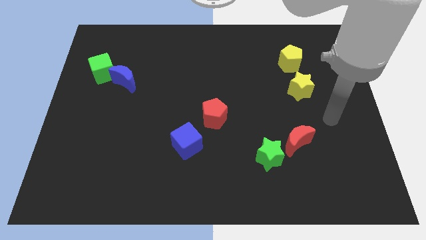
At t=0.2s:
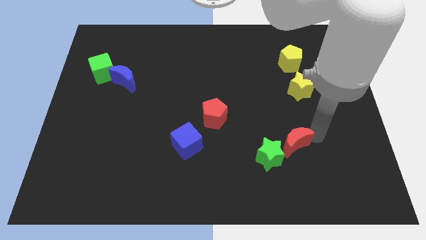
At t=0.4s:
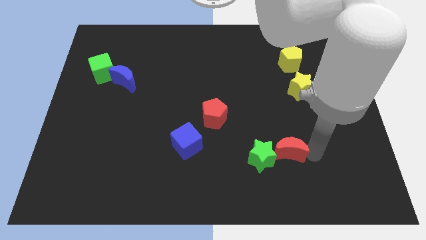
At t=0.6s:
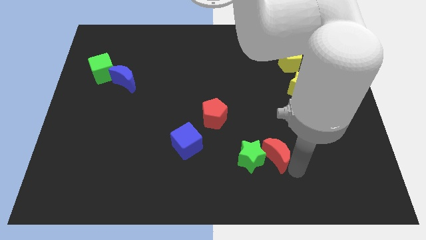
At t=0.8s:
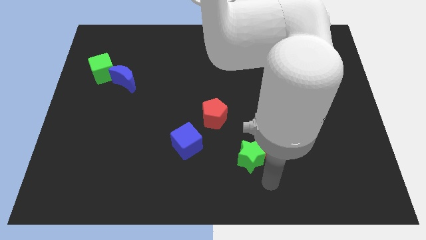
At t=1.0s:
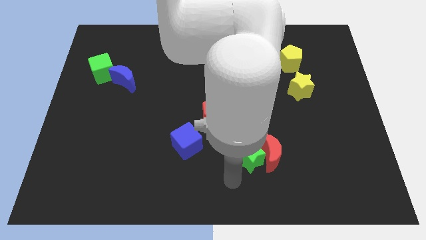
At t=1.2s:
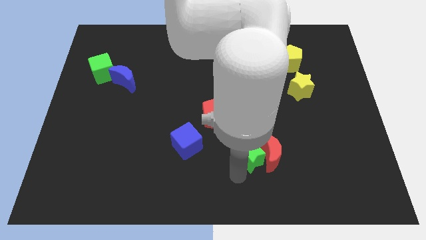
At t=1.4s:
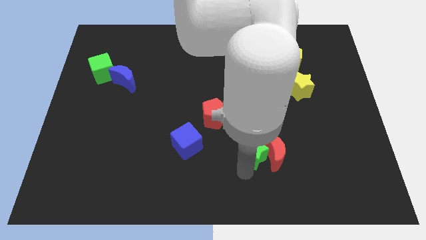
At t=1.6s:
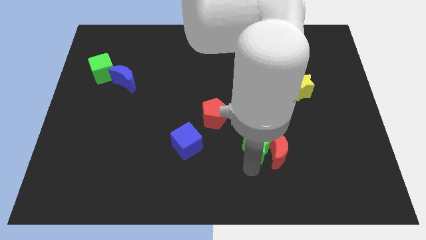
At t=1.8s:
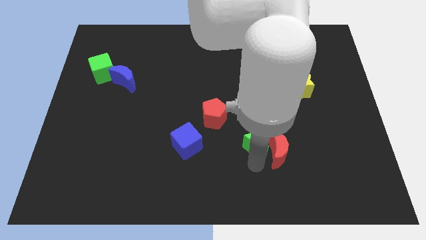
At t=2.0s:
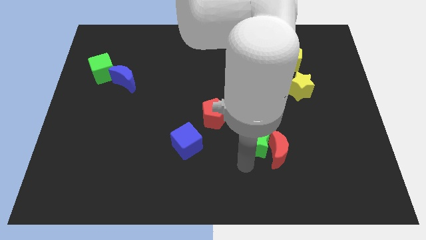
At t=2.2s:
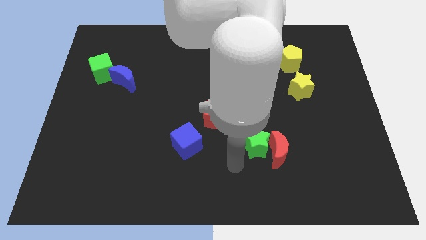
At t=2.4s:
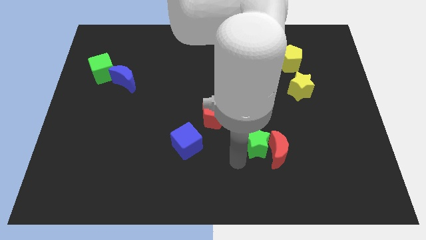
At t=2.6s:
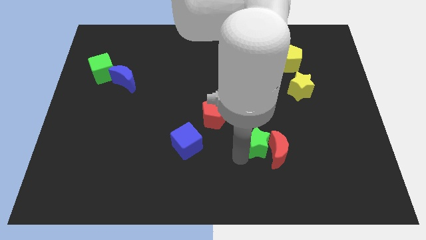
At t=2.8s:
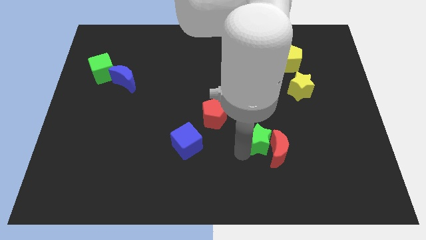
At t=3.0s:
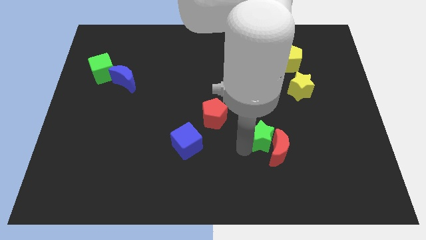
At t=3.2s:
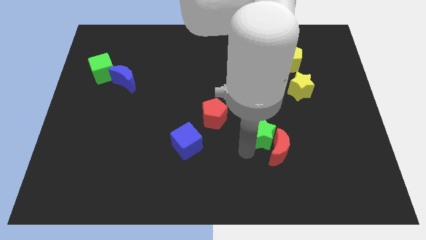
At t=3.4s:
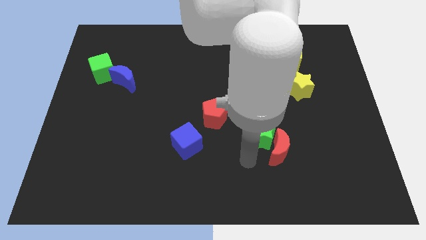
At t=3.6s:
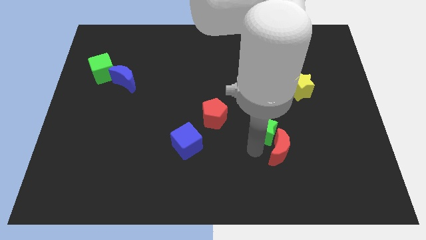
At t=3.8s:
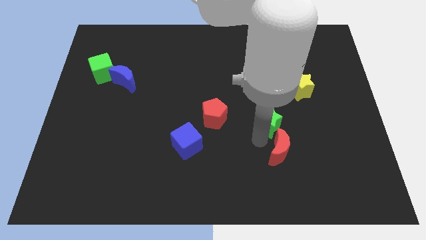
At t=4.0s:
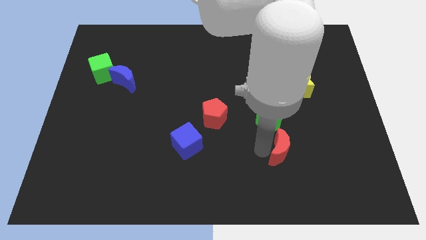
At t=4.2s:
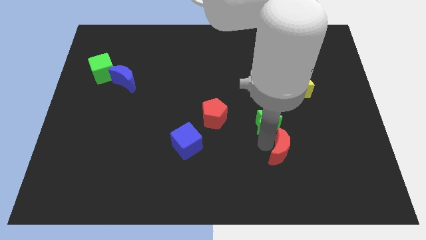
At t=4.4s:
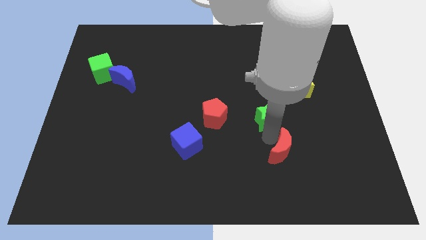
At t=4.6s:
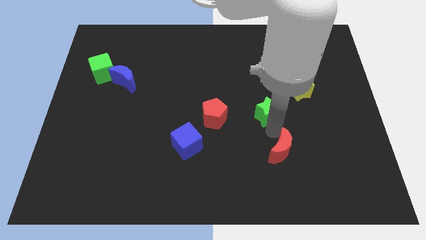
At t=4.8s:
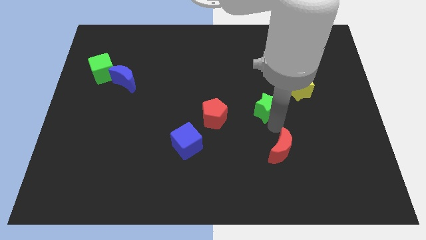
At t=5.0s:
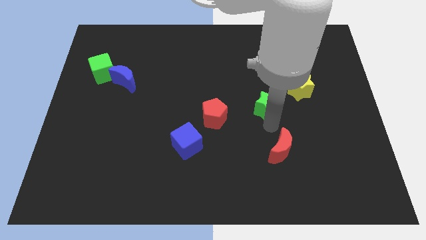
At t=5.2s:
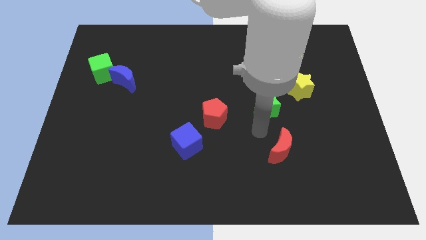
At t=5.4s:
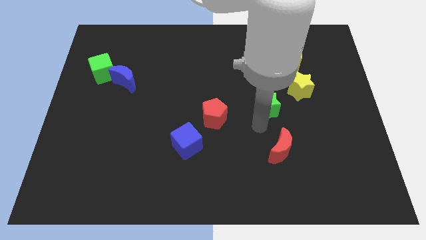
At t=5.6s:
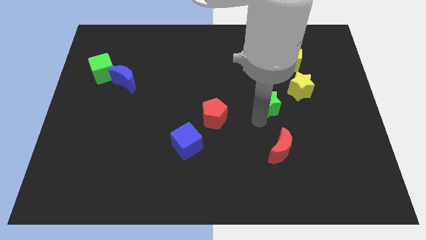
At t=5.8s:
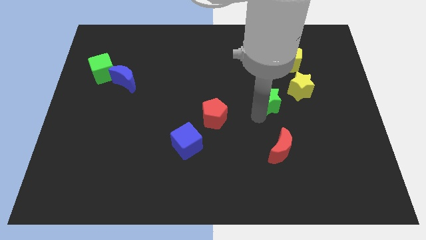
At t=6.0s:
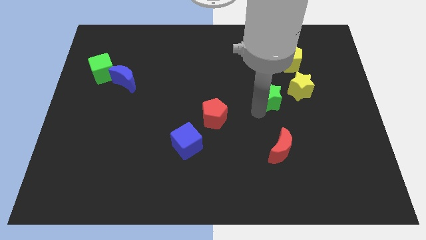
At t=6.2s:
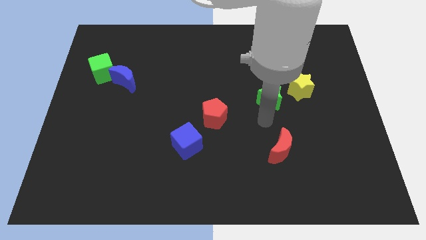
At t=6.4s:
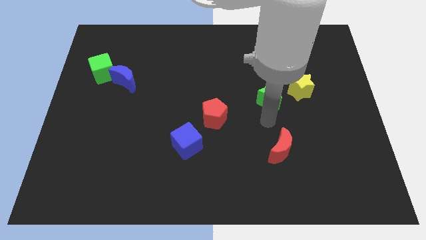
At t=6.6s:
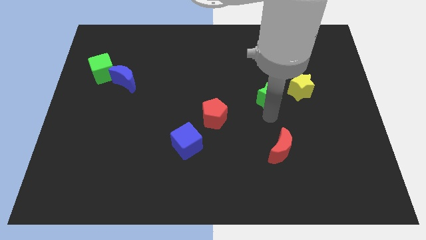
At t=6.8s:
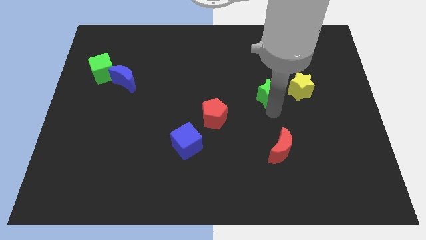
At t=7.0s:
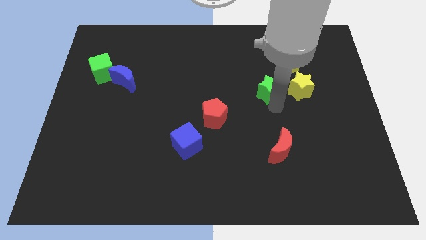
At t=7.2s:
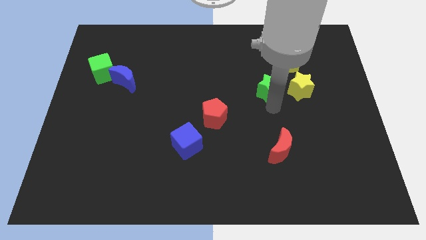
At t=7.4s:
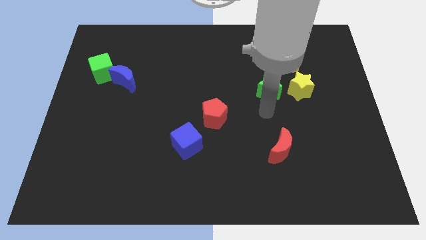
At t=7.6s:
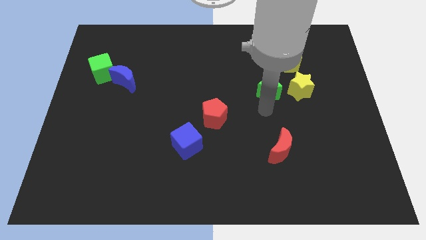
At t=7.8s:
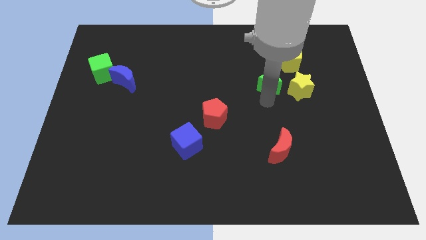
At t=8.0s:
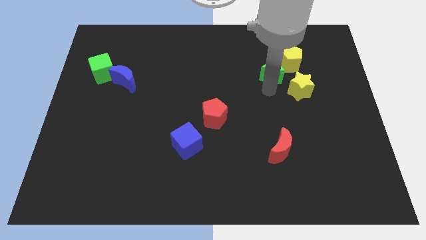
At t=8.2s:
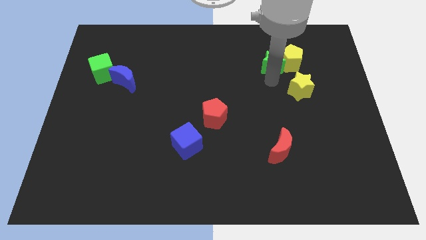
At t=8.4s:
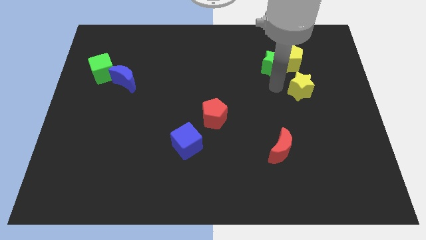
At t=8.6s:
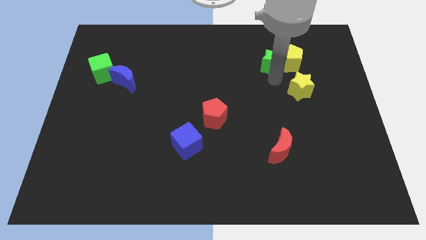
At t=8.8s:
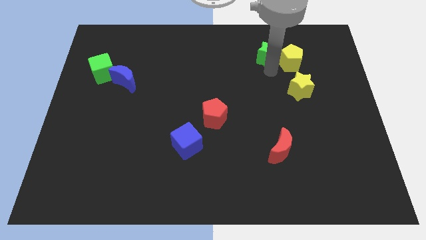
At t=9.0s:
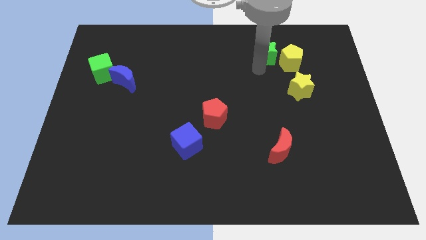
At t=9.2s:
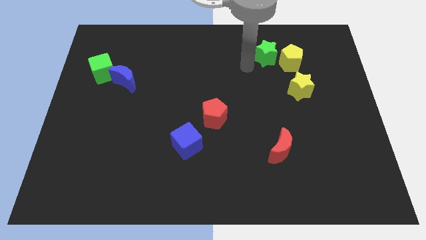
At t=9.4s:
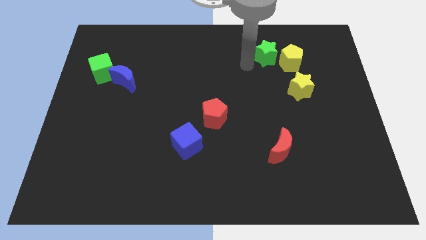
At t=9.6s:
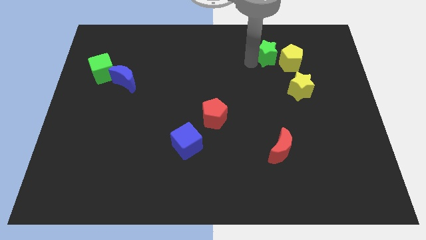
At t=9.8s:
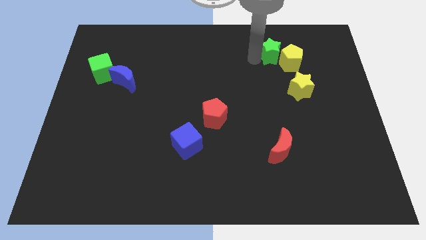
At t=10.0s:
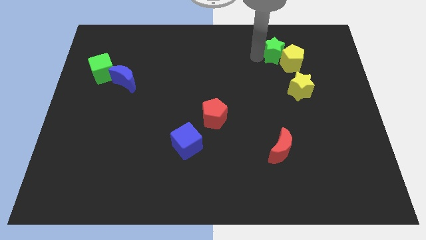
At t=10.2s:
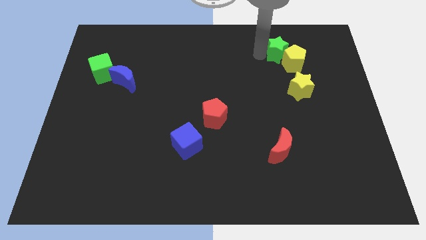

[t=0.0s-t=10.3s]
move the green star to the top side of the yellow star

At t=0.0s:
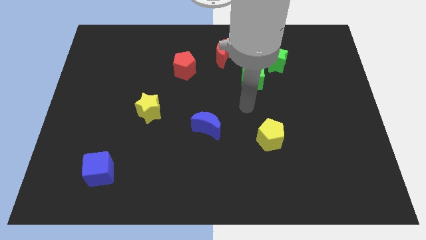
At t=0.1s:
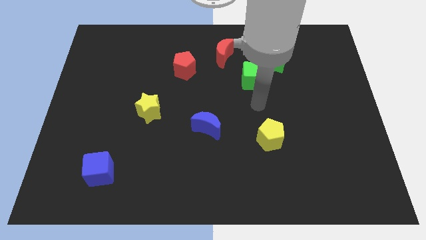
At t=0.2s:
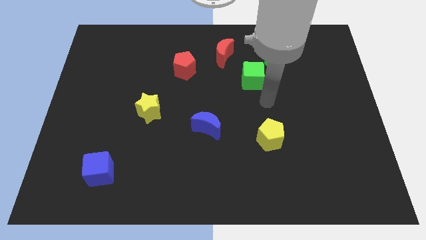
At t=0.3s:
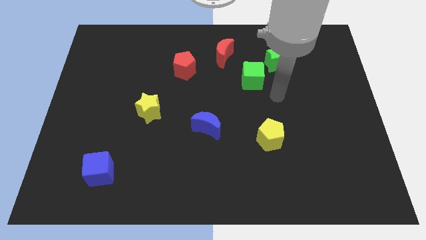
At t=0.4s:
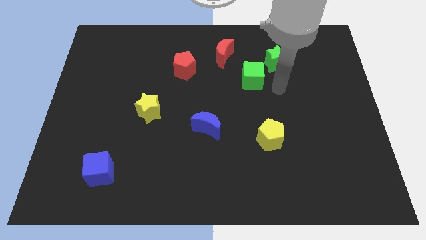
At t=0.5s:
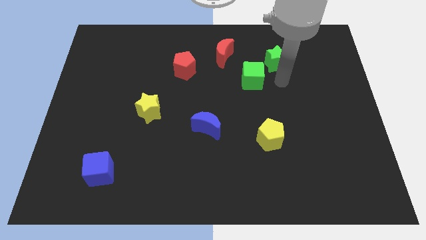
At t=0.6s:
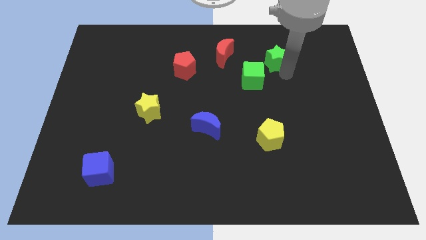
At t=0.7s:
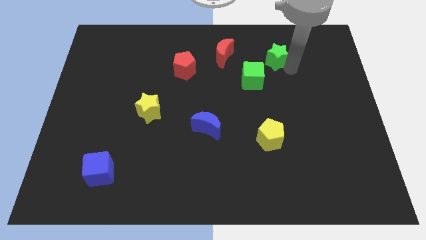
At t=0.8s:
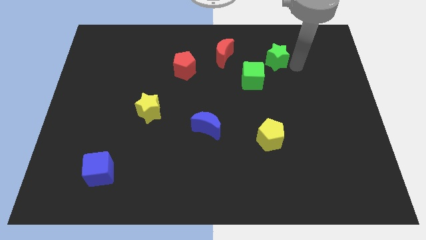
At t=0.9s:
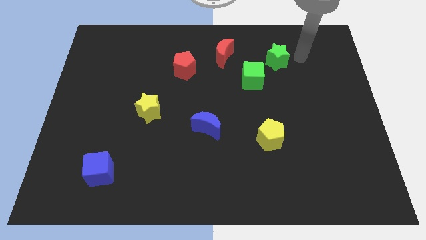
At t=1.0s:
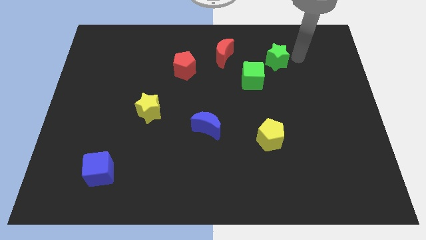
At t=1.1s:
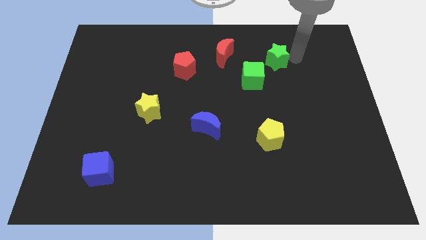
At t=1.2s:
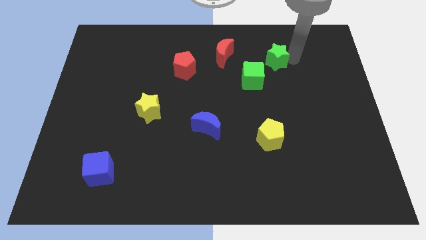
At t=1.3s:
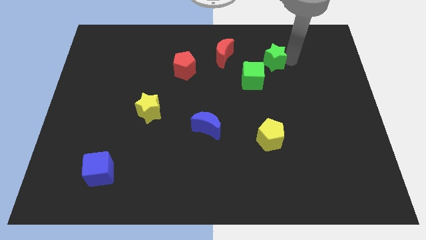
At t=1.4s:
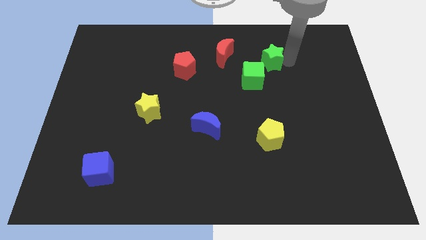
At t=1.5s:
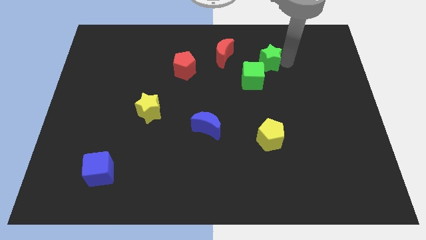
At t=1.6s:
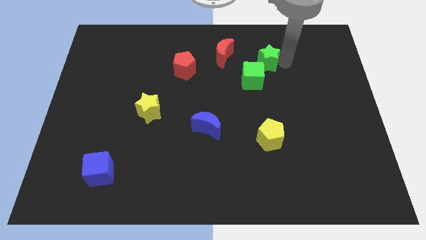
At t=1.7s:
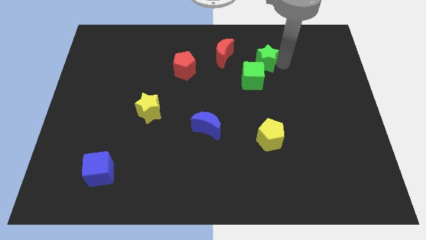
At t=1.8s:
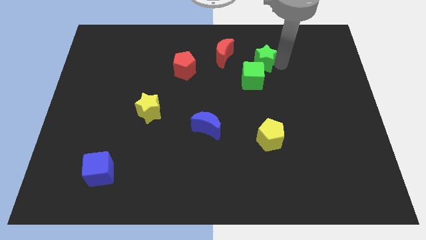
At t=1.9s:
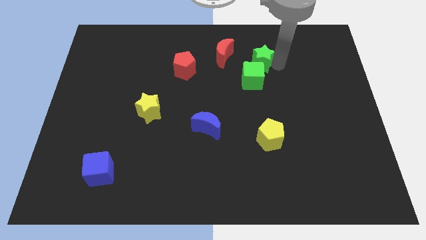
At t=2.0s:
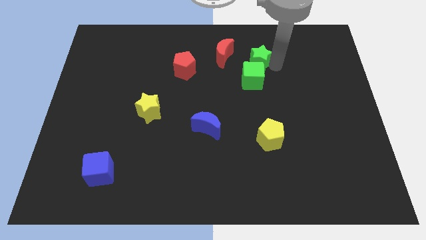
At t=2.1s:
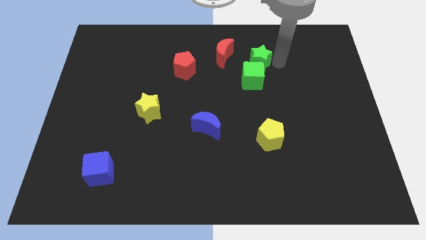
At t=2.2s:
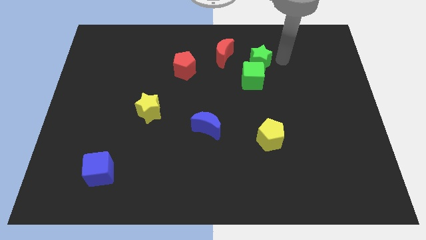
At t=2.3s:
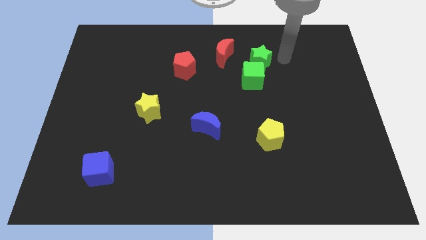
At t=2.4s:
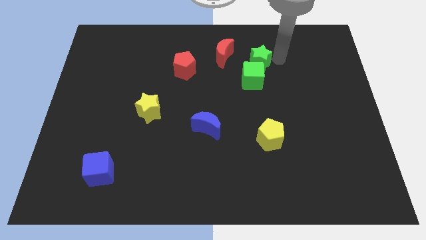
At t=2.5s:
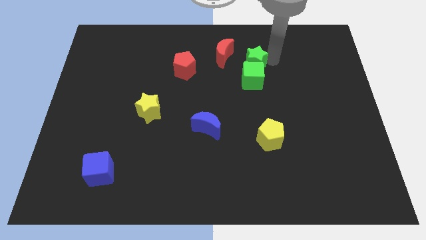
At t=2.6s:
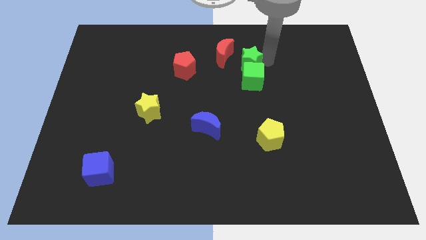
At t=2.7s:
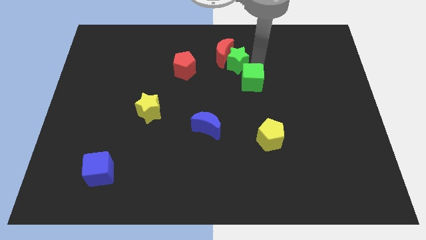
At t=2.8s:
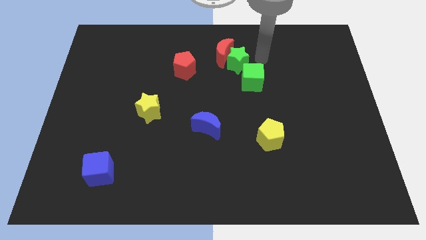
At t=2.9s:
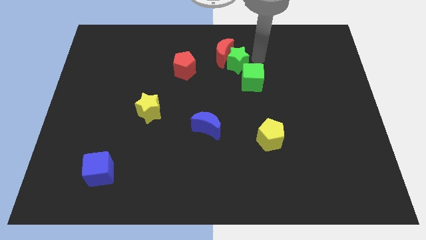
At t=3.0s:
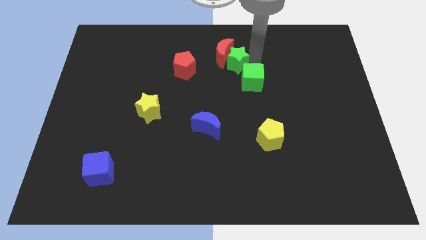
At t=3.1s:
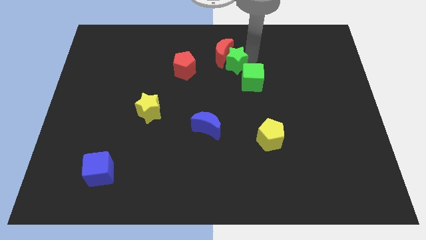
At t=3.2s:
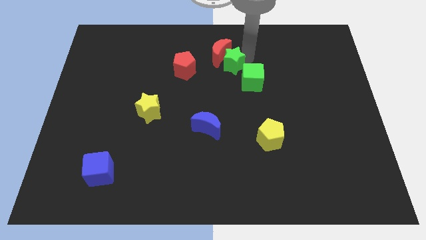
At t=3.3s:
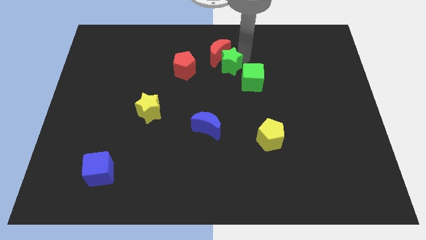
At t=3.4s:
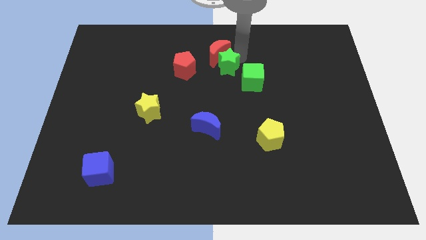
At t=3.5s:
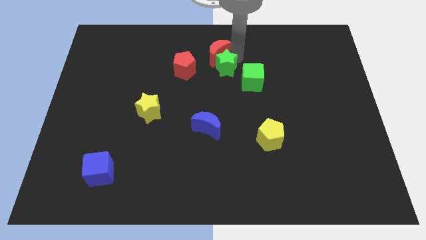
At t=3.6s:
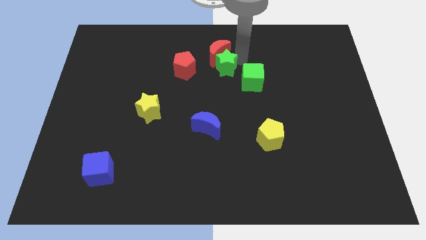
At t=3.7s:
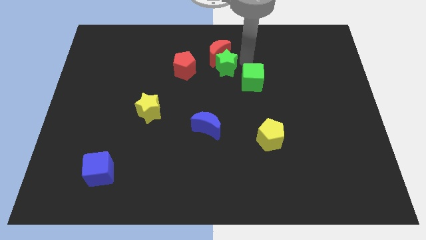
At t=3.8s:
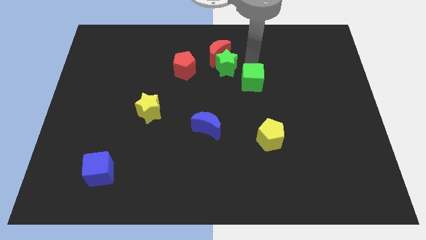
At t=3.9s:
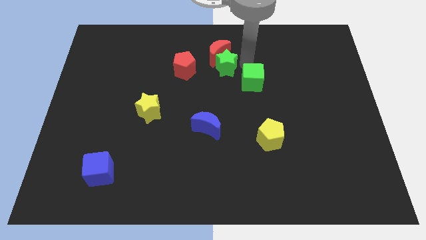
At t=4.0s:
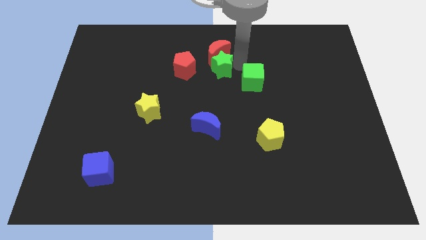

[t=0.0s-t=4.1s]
push the green star to the bottom left of the red moon
